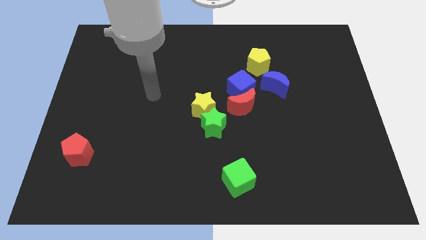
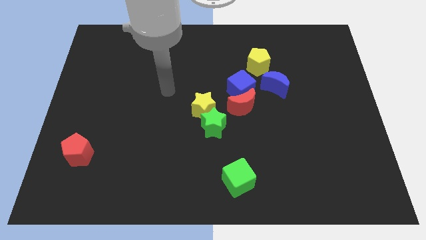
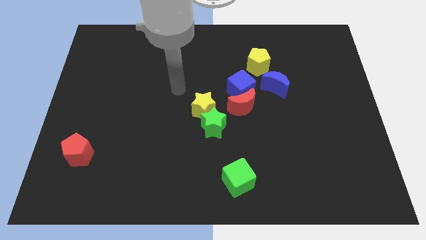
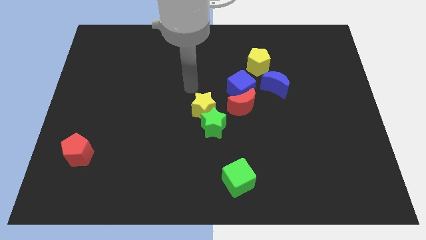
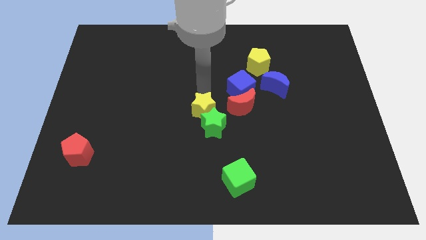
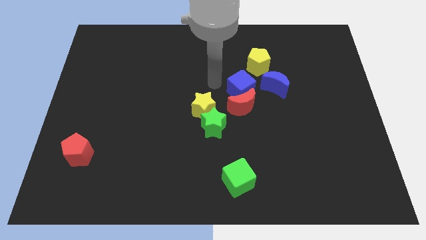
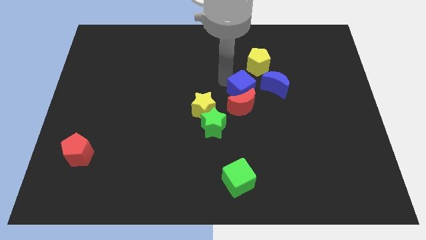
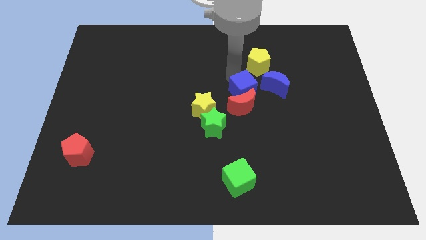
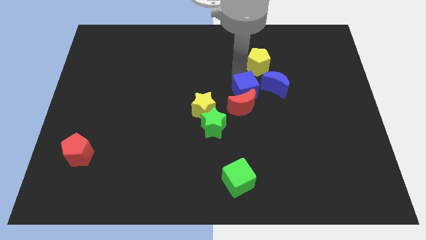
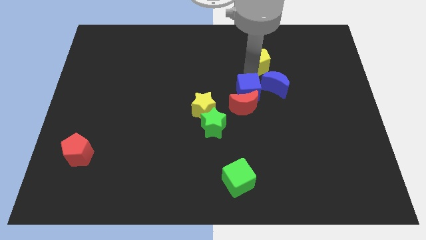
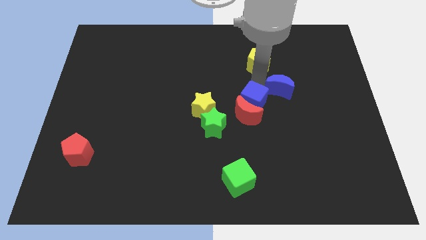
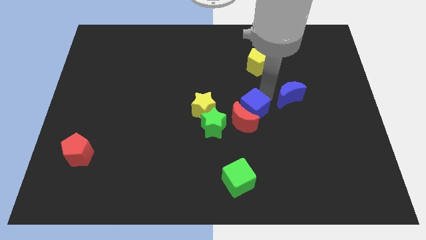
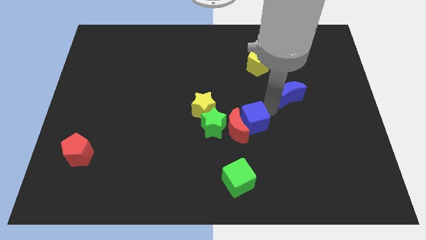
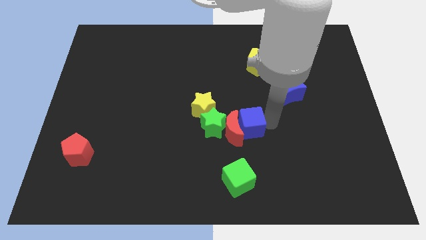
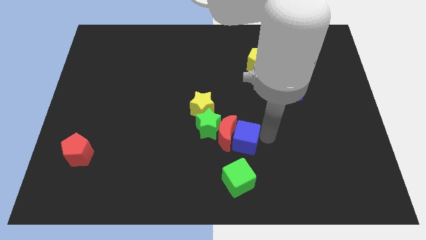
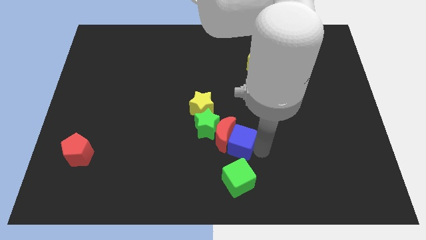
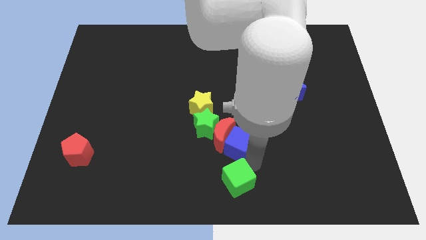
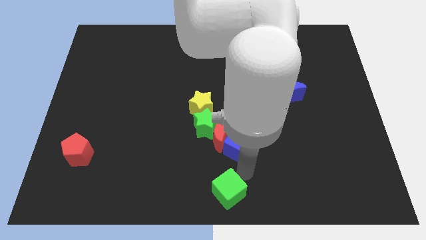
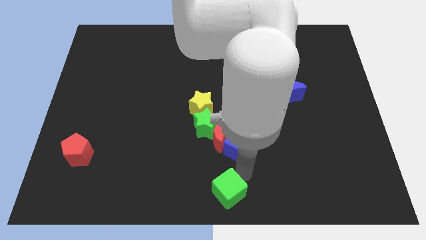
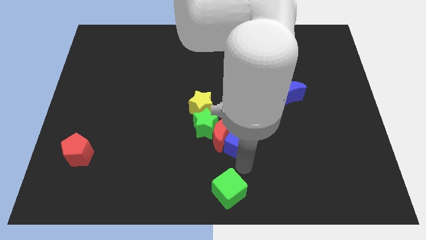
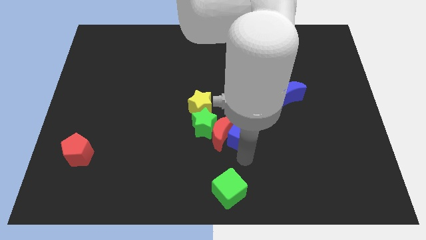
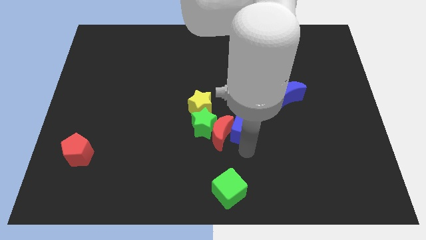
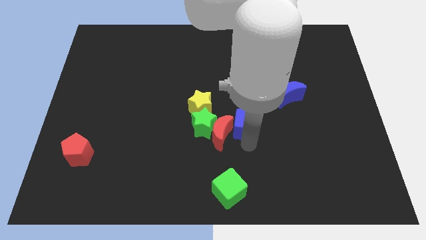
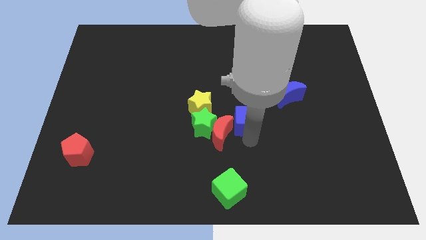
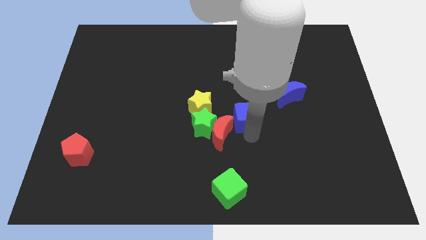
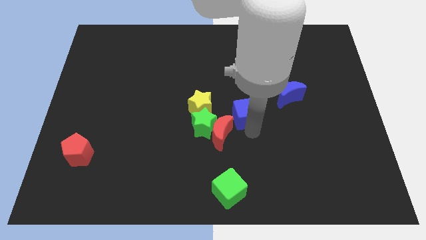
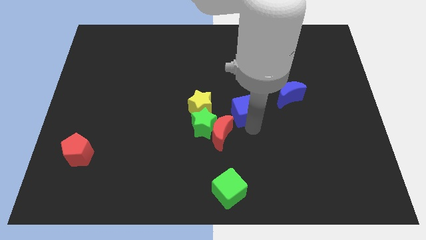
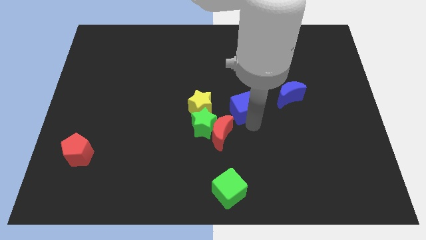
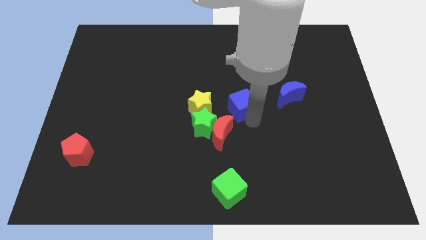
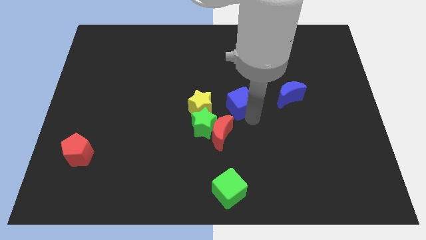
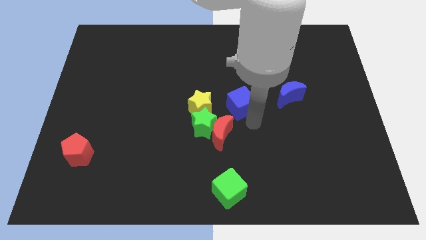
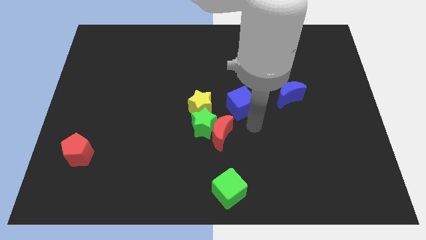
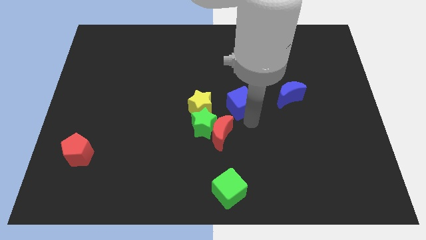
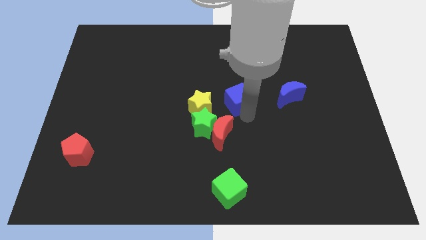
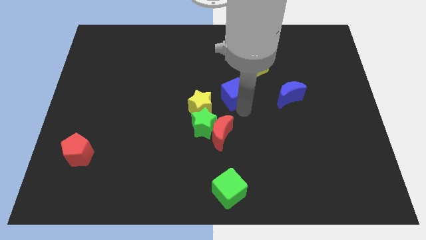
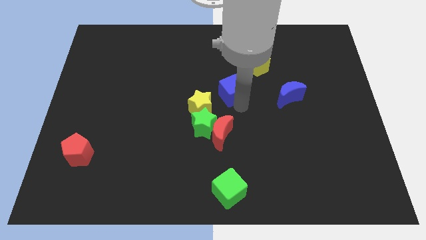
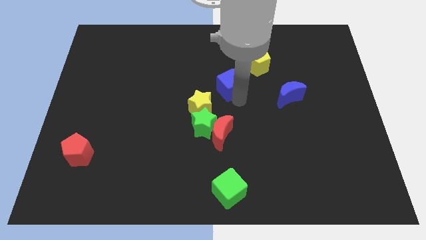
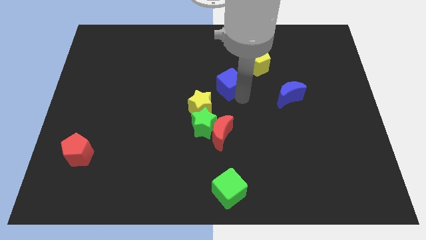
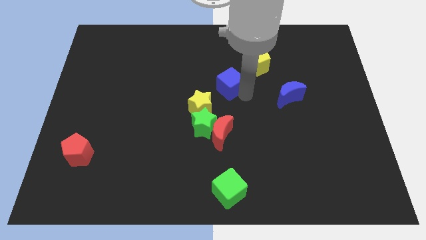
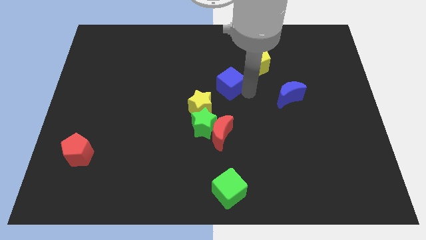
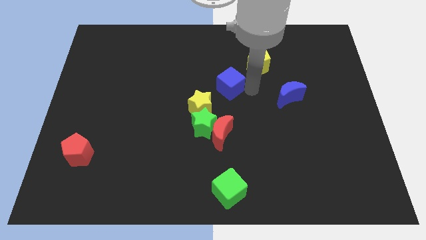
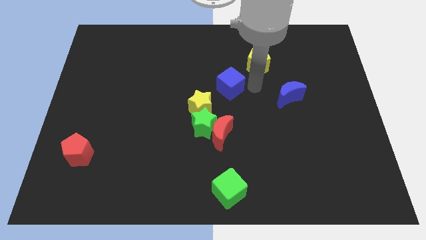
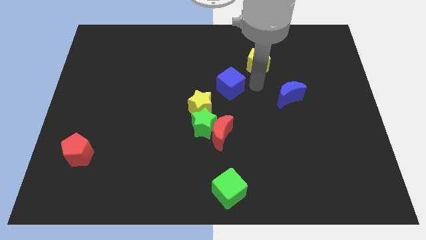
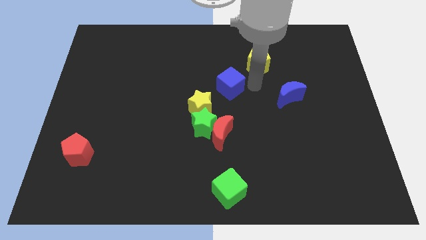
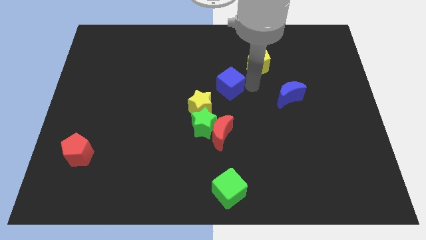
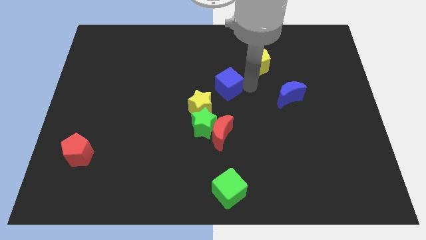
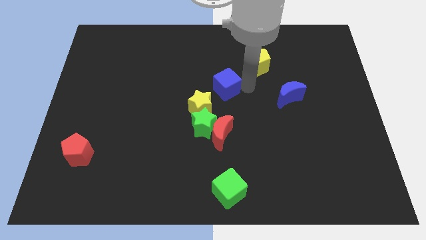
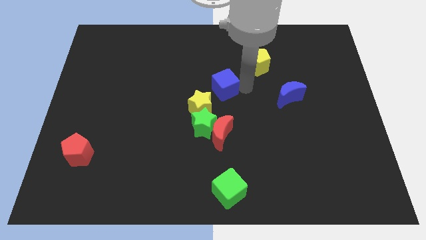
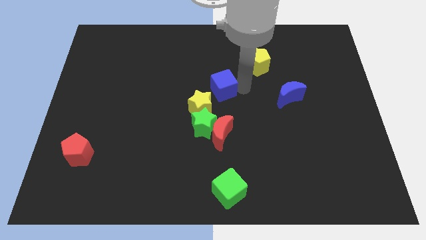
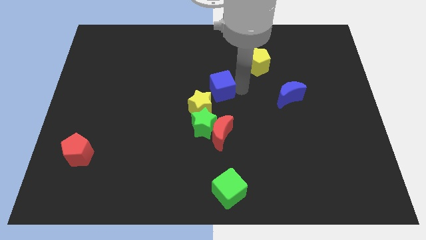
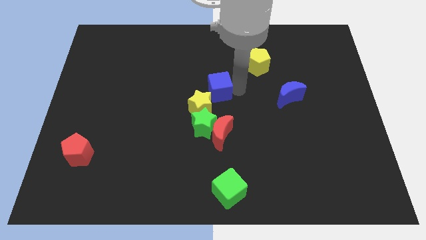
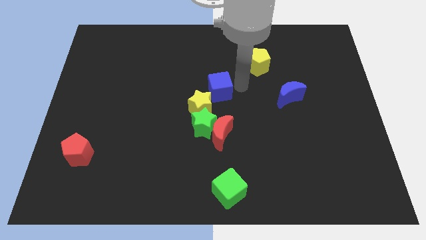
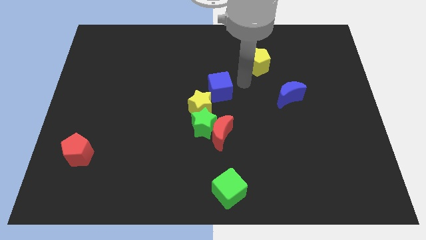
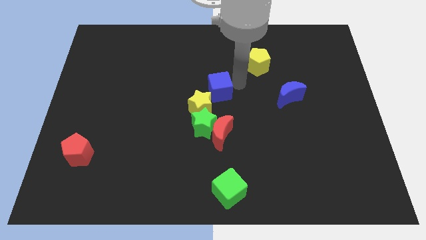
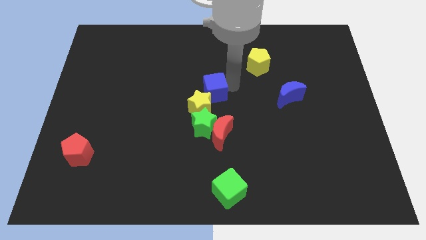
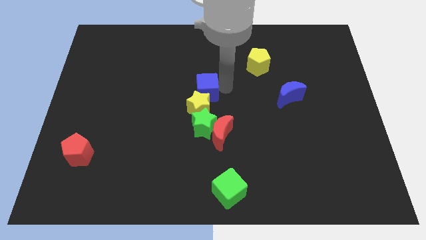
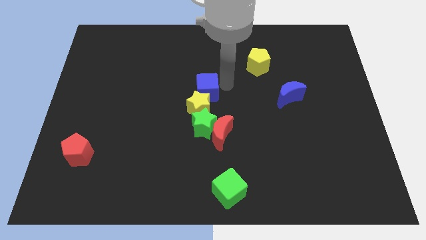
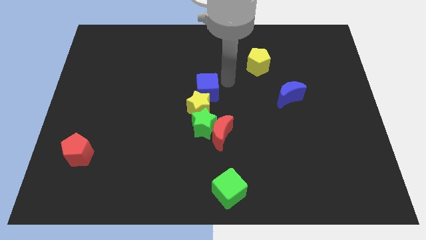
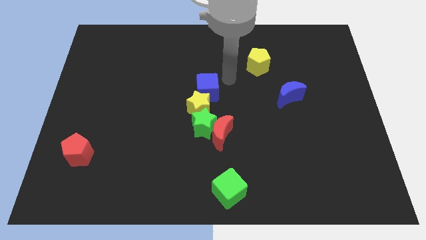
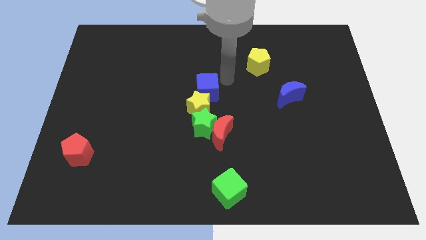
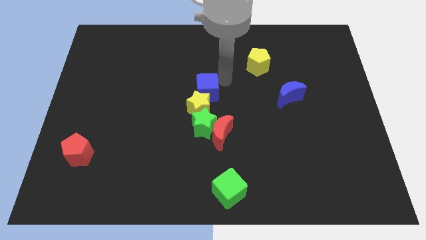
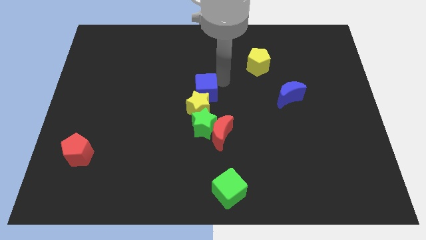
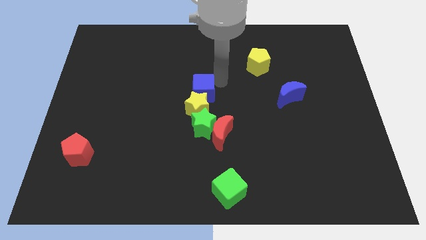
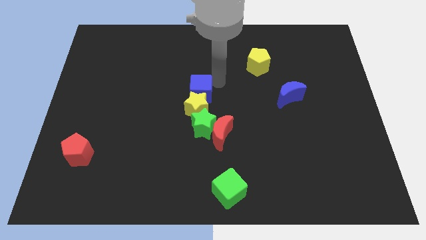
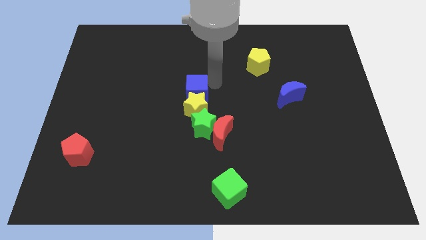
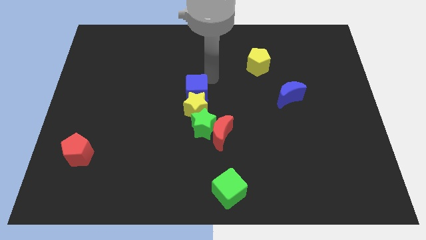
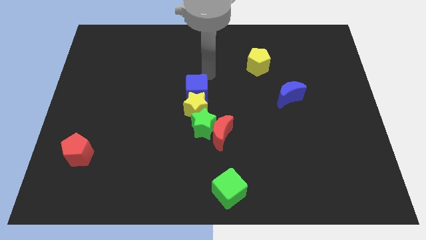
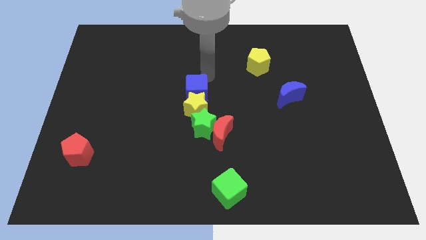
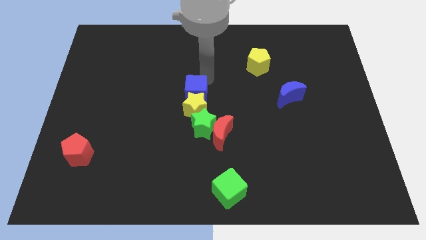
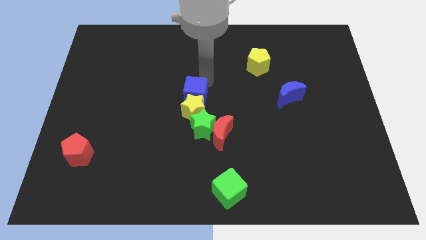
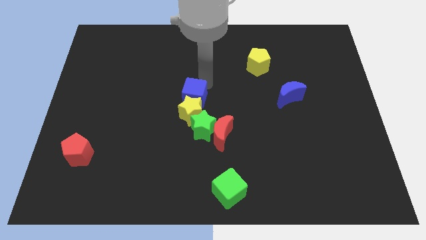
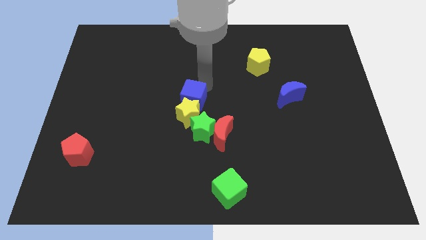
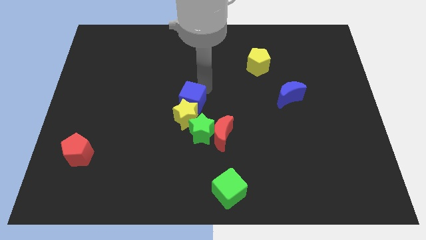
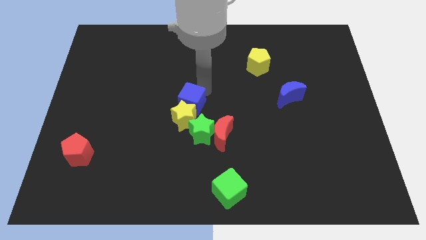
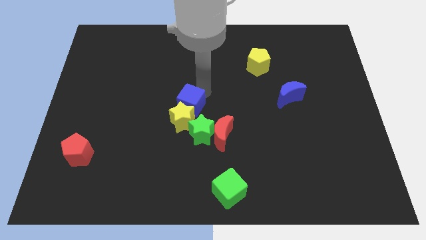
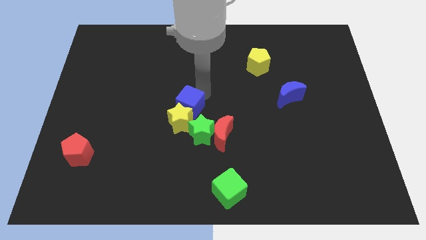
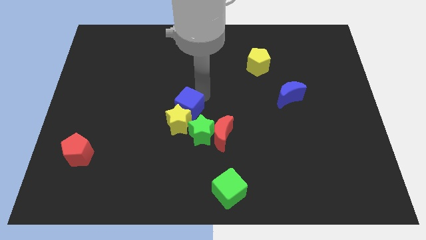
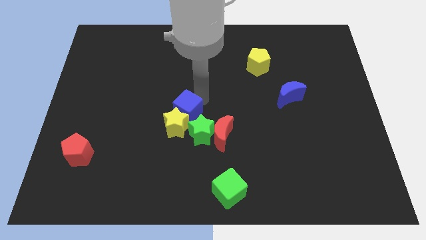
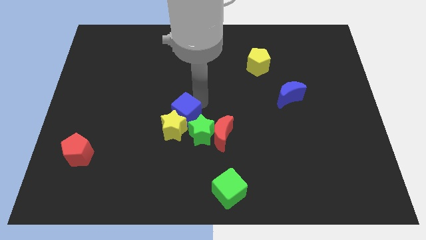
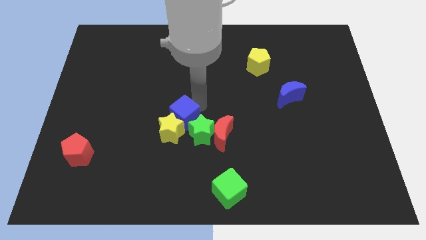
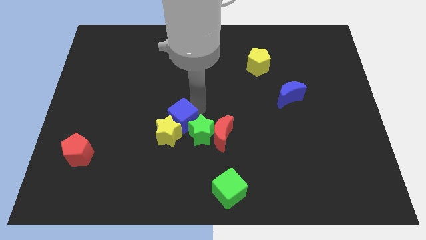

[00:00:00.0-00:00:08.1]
move the blue cube just left of the green star
